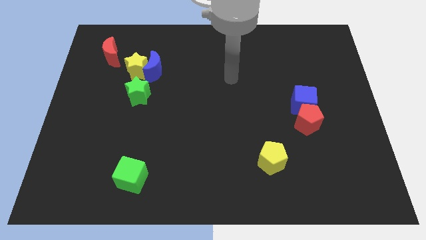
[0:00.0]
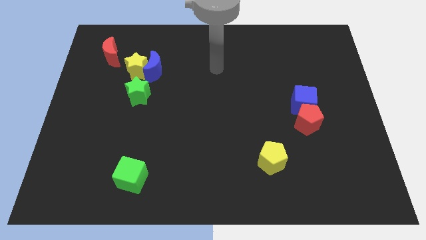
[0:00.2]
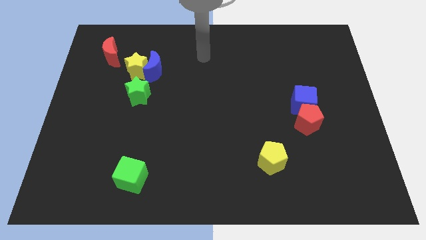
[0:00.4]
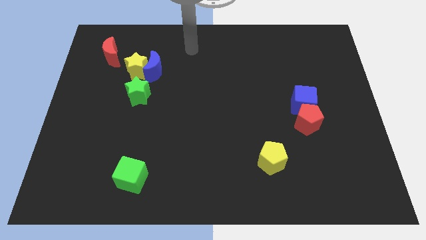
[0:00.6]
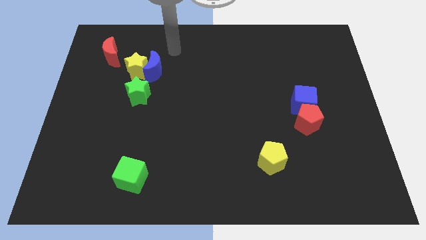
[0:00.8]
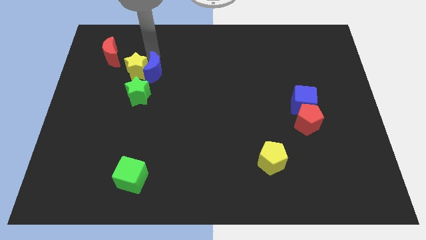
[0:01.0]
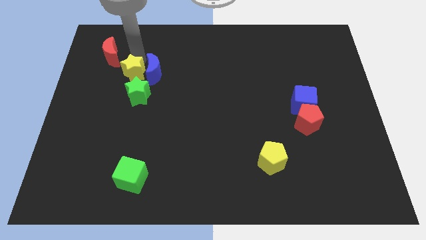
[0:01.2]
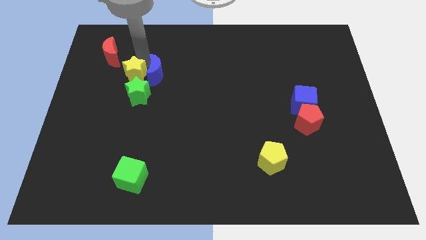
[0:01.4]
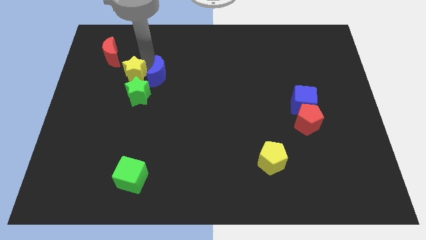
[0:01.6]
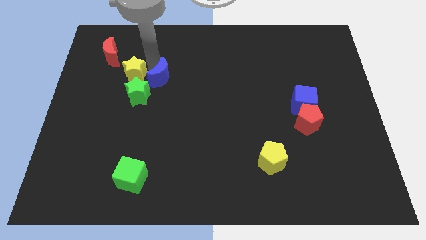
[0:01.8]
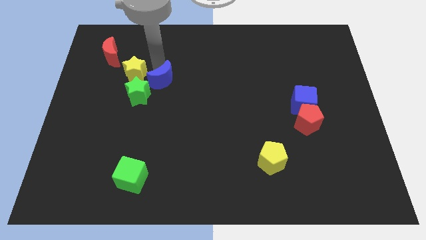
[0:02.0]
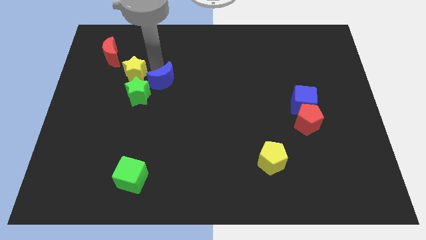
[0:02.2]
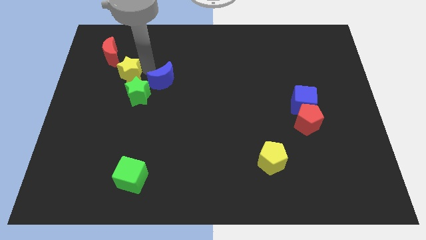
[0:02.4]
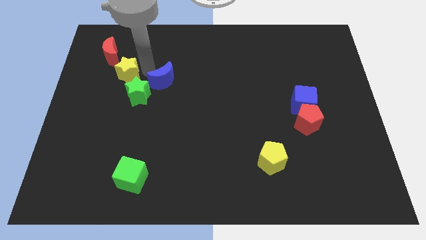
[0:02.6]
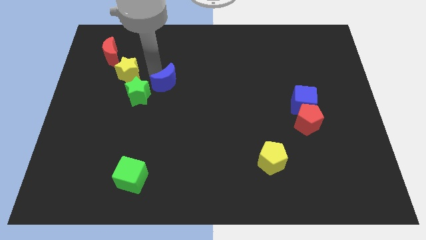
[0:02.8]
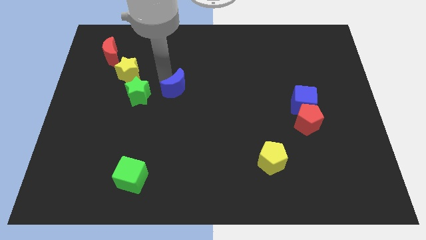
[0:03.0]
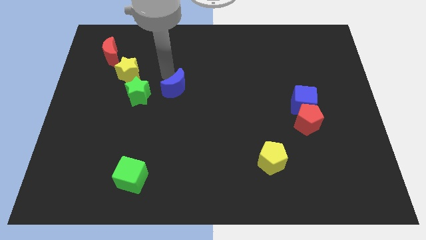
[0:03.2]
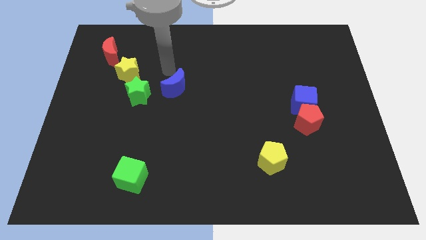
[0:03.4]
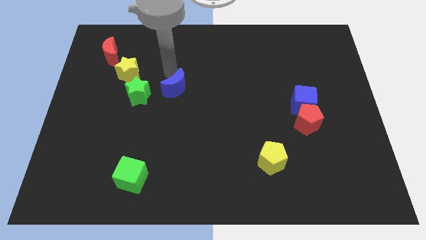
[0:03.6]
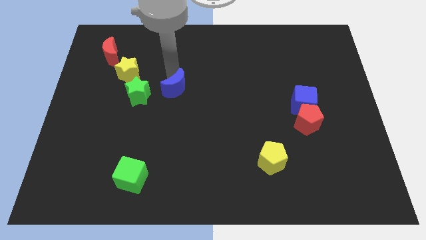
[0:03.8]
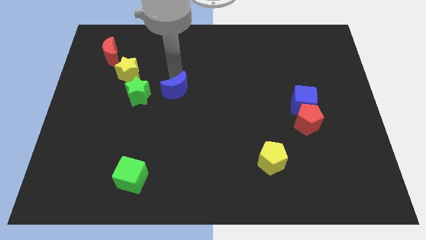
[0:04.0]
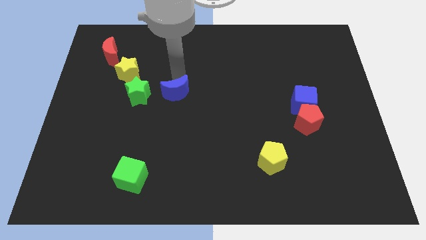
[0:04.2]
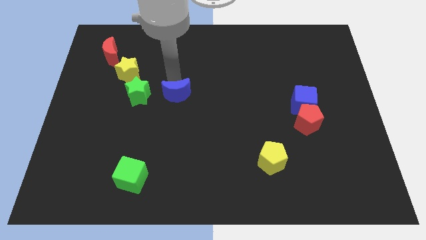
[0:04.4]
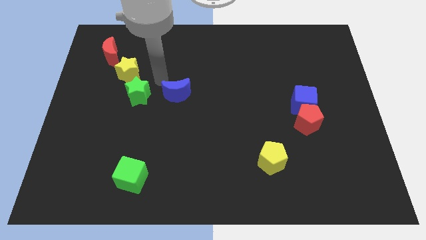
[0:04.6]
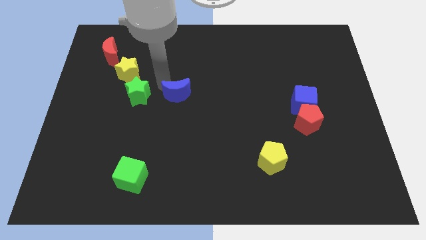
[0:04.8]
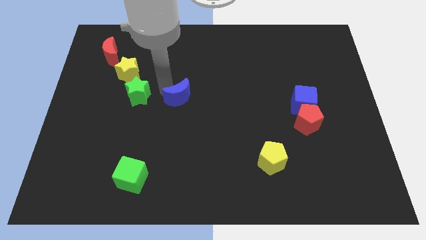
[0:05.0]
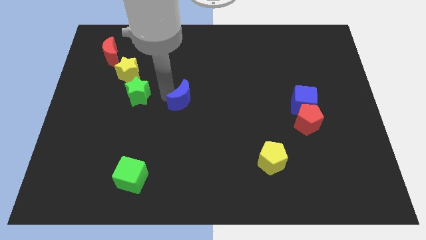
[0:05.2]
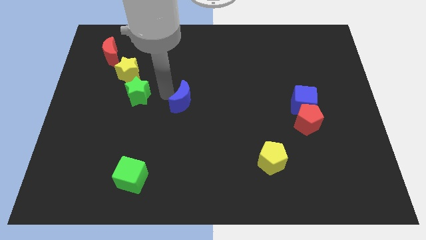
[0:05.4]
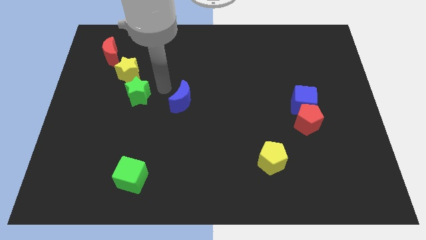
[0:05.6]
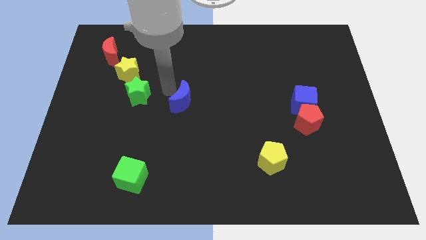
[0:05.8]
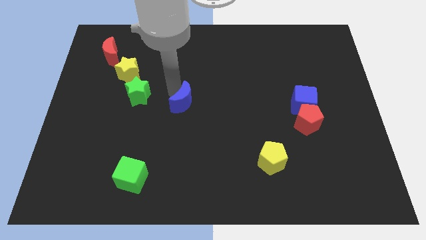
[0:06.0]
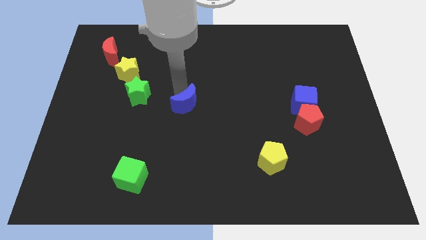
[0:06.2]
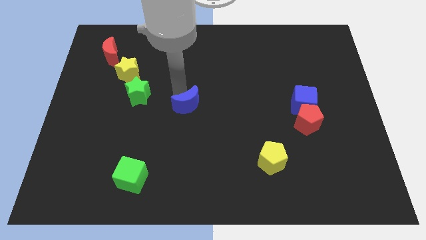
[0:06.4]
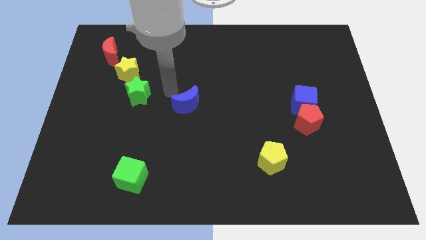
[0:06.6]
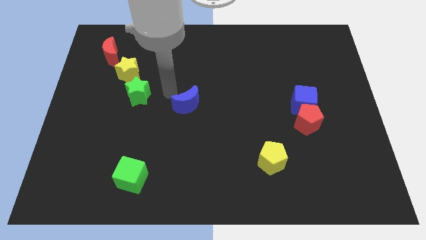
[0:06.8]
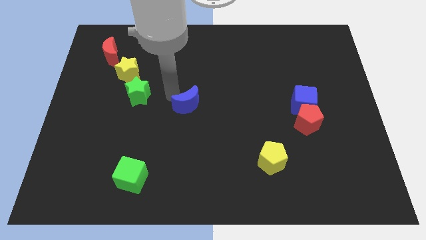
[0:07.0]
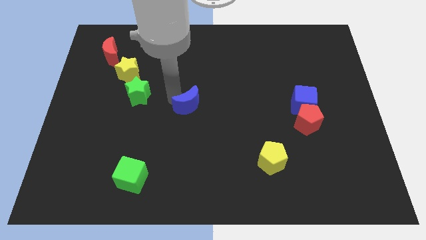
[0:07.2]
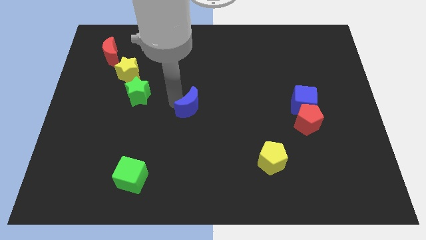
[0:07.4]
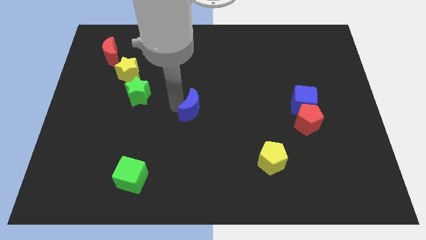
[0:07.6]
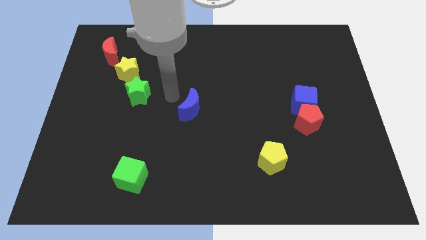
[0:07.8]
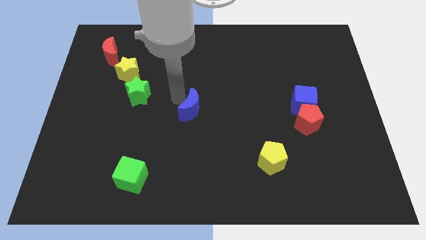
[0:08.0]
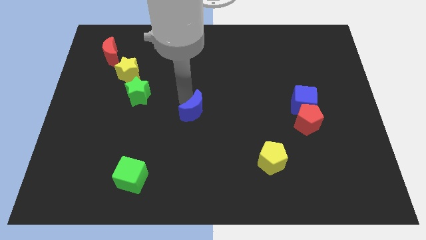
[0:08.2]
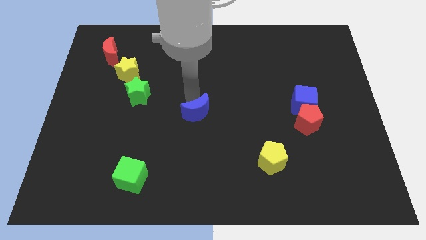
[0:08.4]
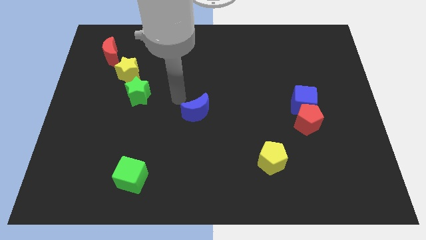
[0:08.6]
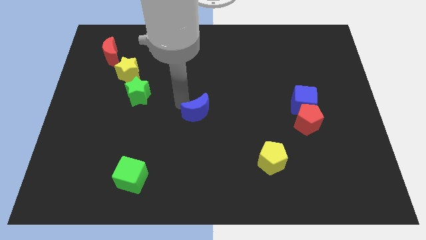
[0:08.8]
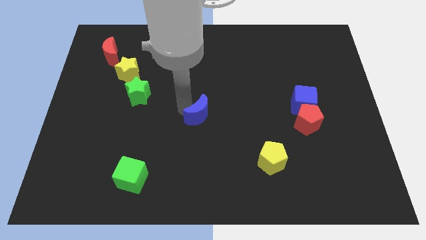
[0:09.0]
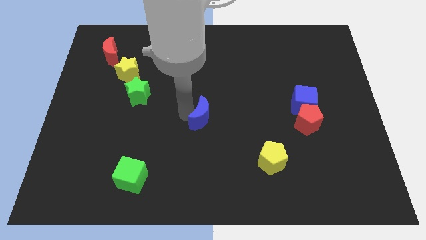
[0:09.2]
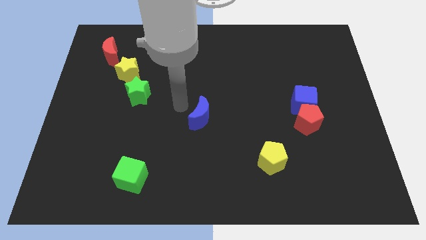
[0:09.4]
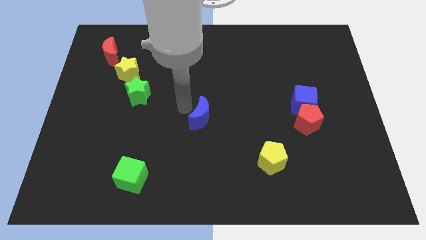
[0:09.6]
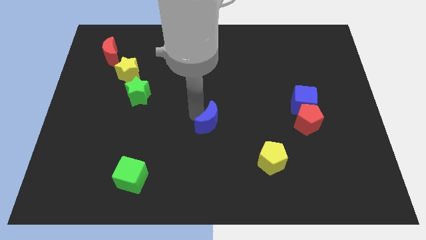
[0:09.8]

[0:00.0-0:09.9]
slide the blue moon downwards and to the right diagonally

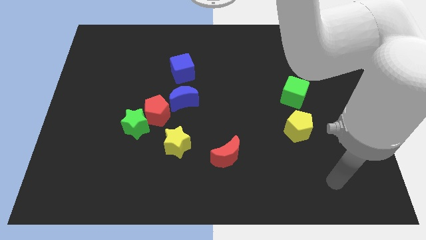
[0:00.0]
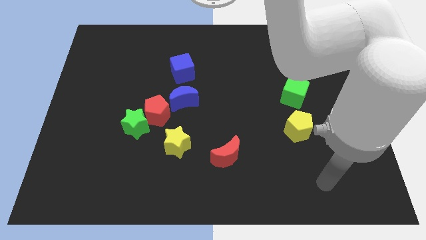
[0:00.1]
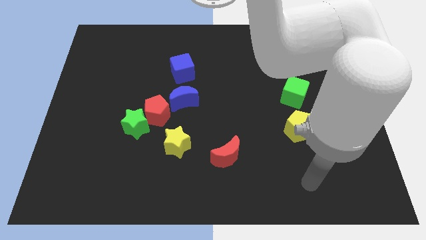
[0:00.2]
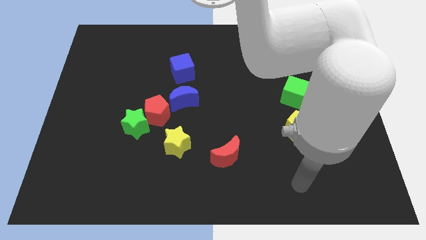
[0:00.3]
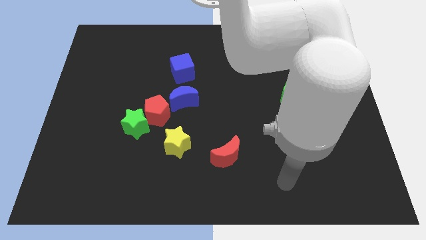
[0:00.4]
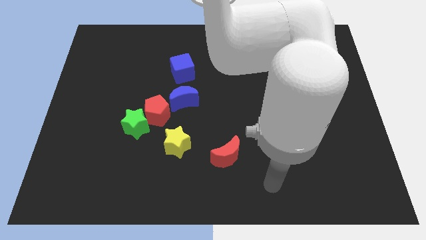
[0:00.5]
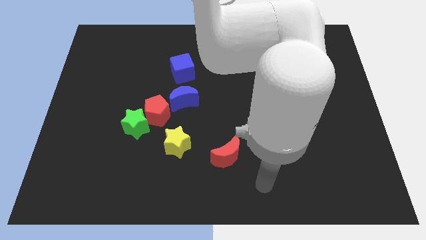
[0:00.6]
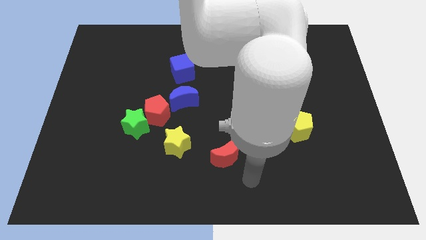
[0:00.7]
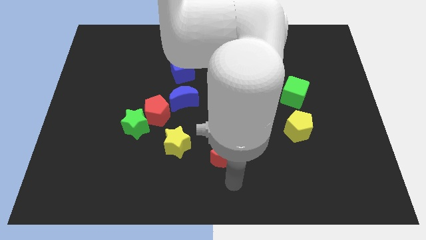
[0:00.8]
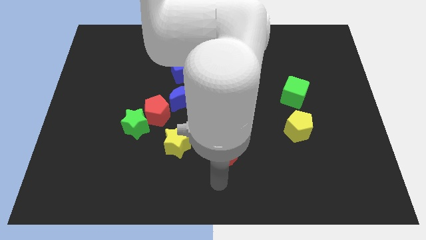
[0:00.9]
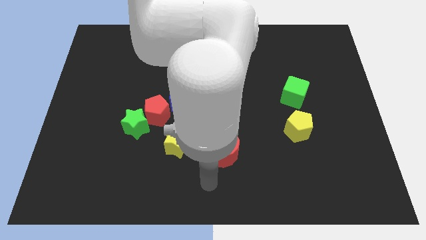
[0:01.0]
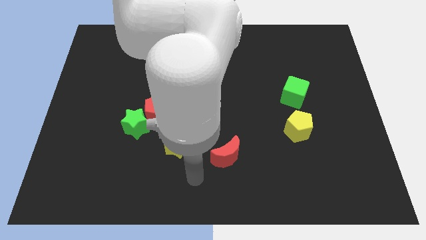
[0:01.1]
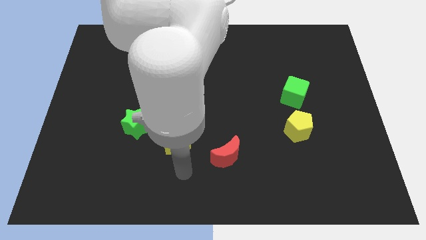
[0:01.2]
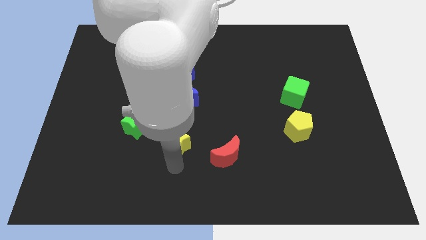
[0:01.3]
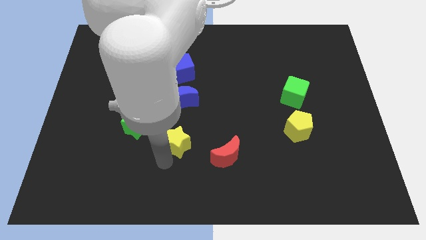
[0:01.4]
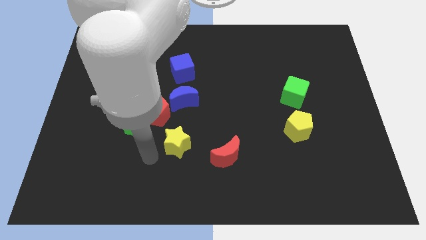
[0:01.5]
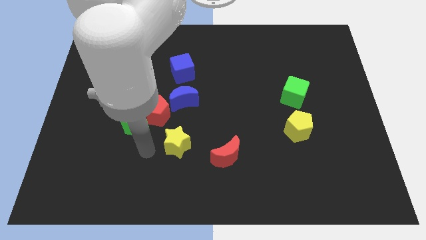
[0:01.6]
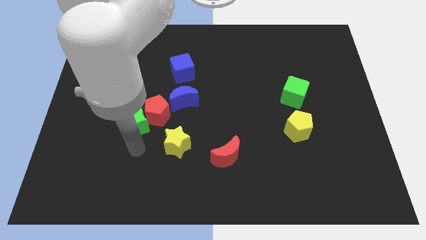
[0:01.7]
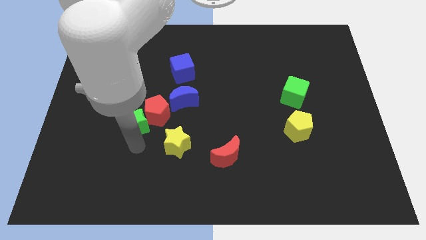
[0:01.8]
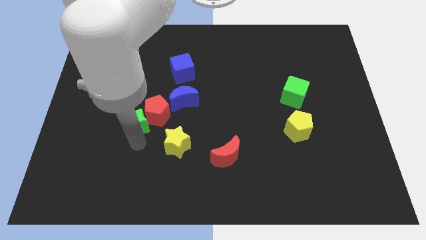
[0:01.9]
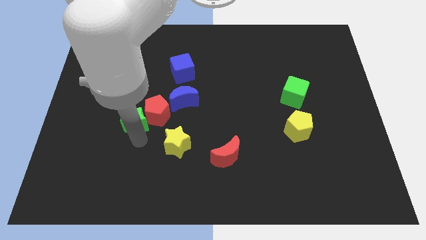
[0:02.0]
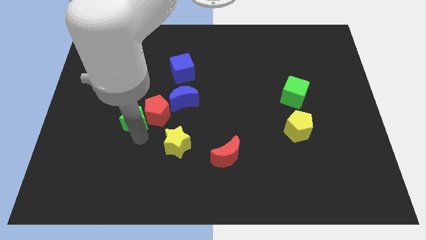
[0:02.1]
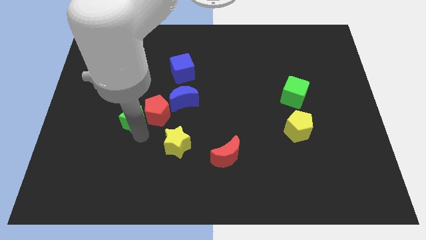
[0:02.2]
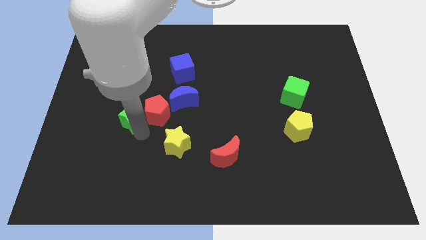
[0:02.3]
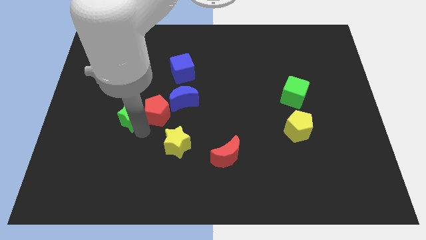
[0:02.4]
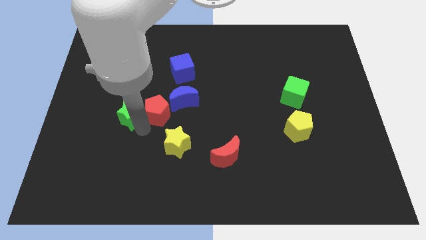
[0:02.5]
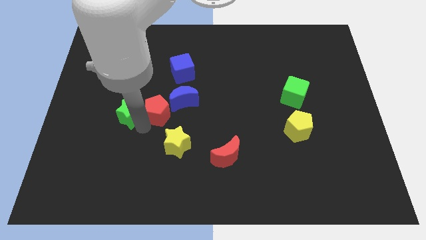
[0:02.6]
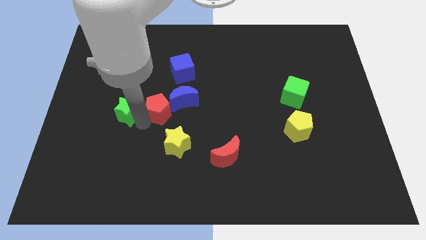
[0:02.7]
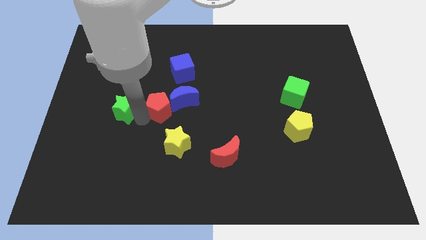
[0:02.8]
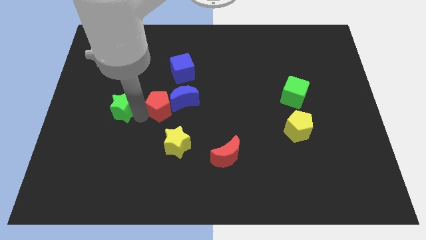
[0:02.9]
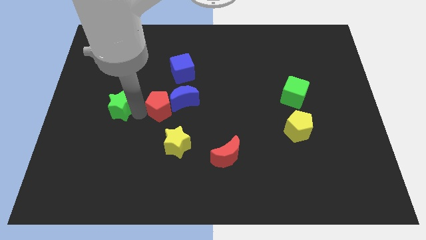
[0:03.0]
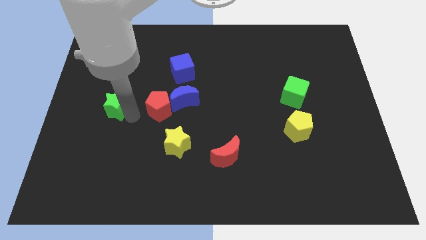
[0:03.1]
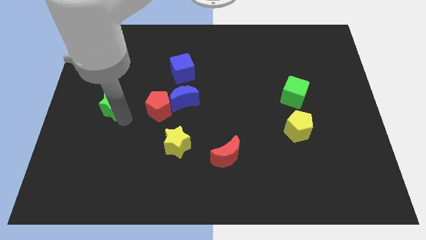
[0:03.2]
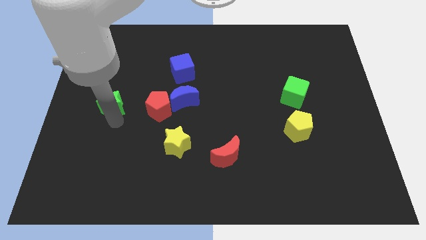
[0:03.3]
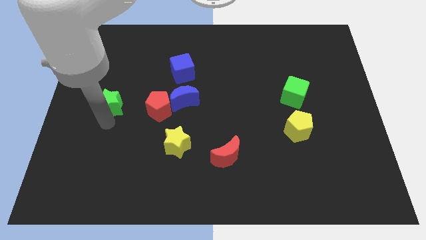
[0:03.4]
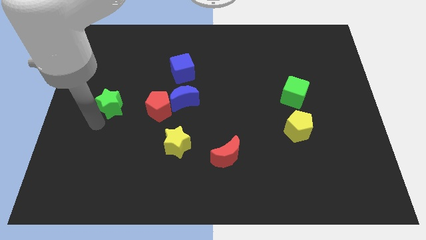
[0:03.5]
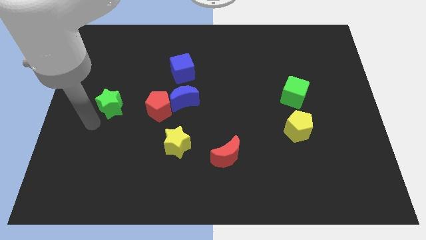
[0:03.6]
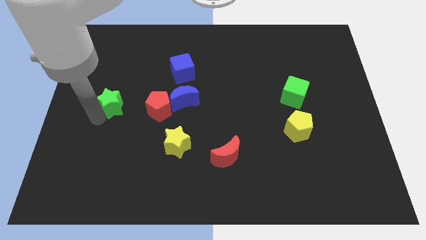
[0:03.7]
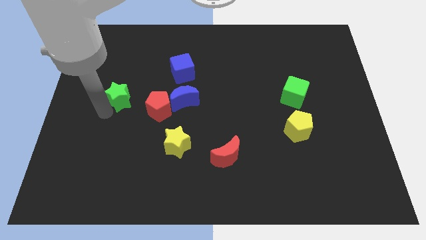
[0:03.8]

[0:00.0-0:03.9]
slide the green star a bit up
